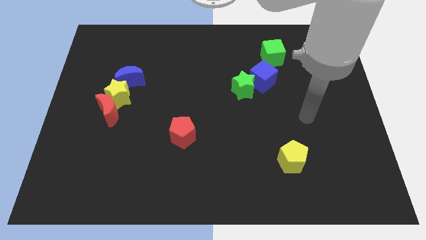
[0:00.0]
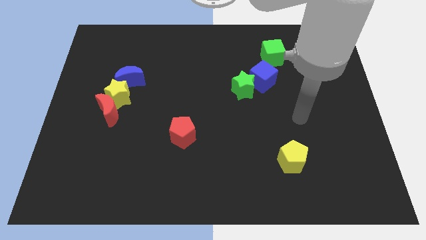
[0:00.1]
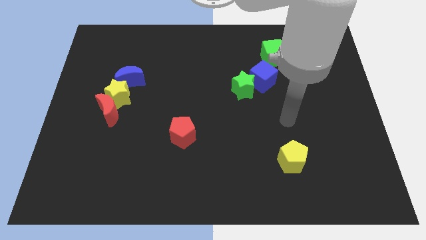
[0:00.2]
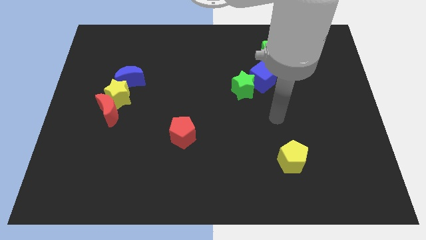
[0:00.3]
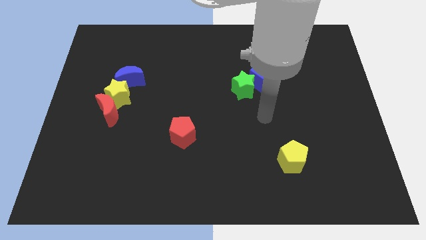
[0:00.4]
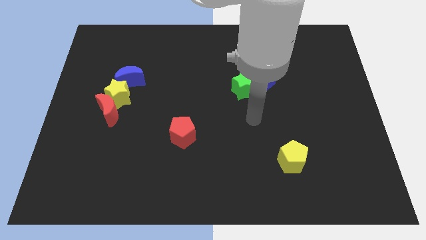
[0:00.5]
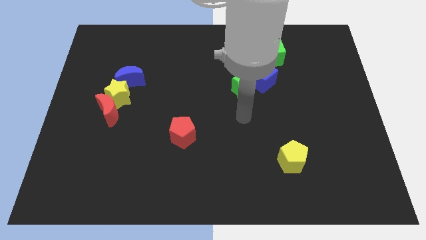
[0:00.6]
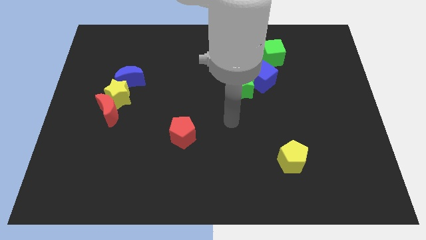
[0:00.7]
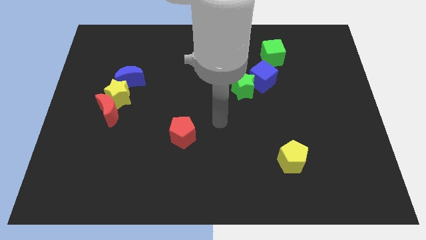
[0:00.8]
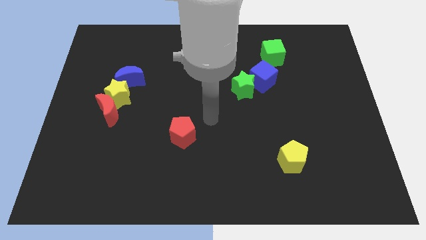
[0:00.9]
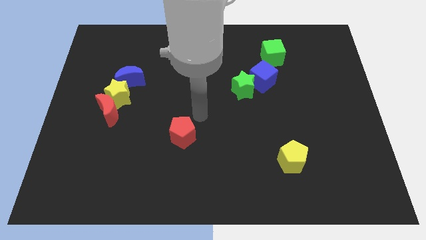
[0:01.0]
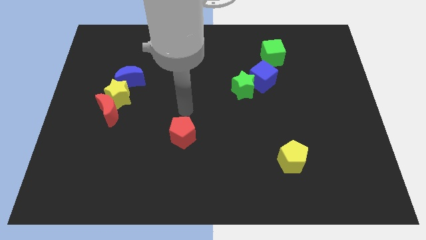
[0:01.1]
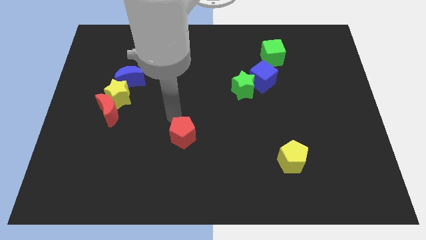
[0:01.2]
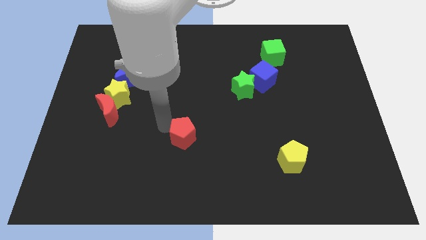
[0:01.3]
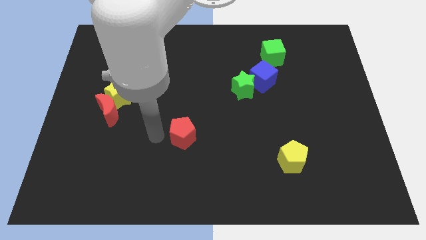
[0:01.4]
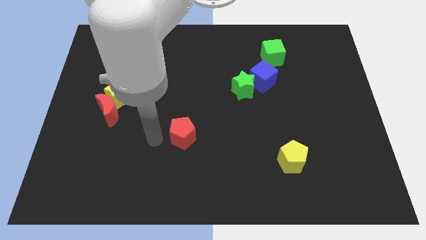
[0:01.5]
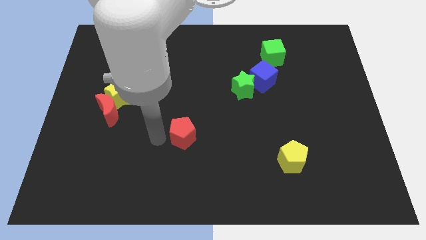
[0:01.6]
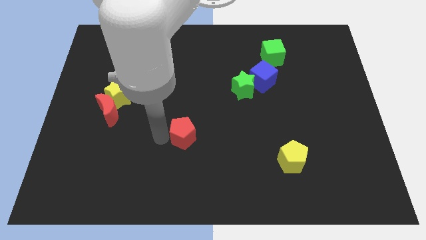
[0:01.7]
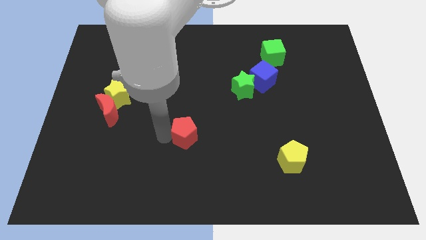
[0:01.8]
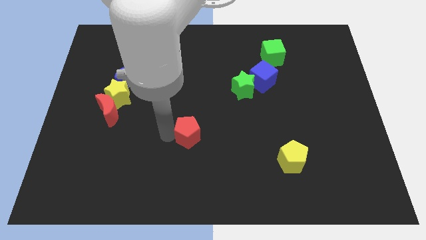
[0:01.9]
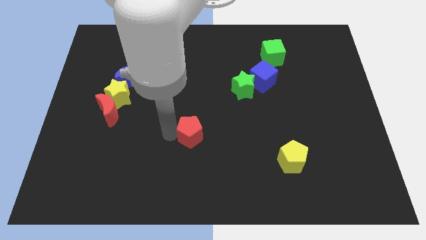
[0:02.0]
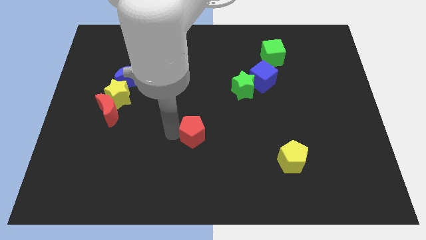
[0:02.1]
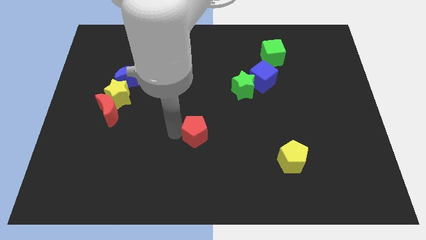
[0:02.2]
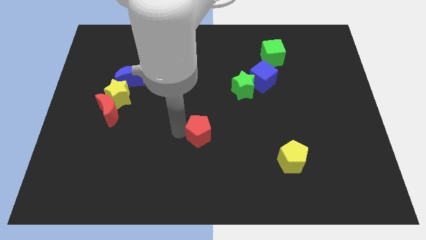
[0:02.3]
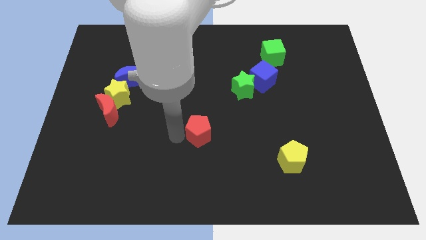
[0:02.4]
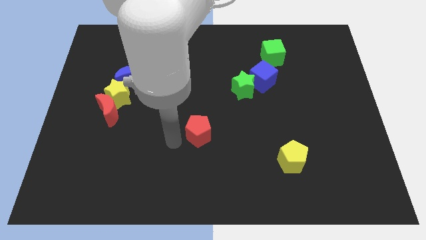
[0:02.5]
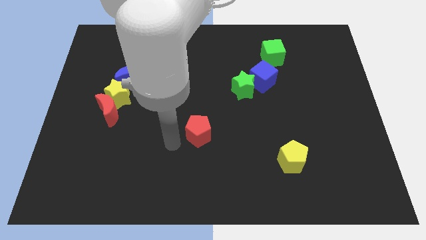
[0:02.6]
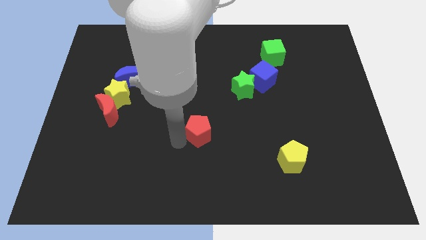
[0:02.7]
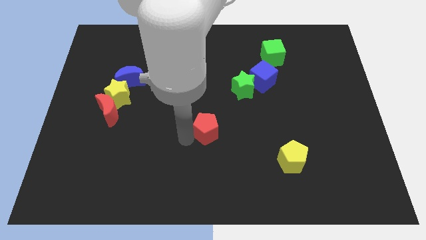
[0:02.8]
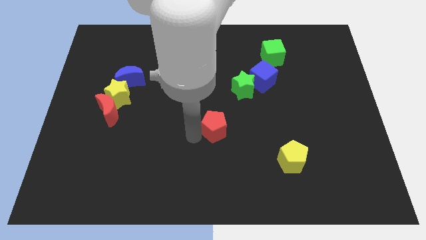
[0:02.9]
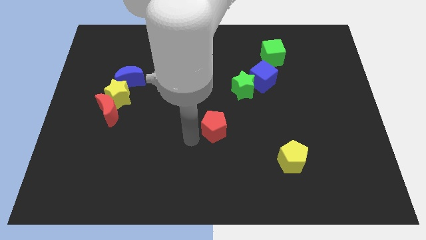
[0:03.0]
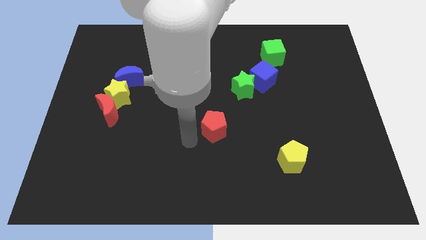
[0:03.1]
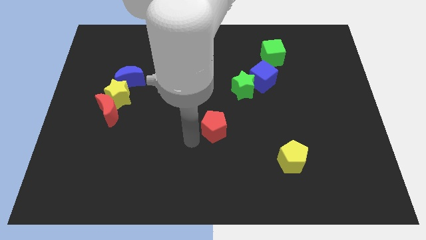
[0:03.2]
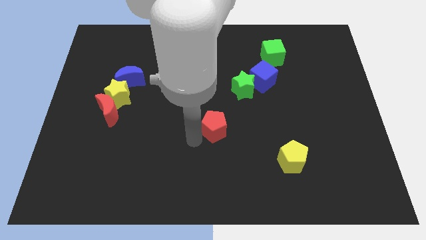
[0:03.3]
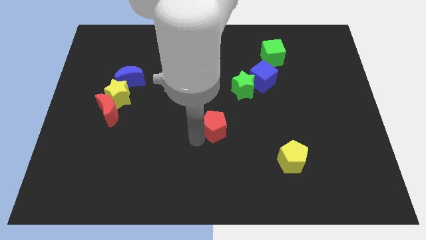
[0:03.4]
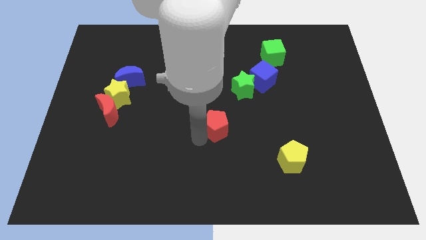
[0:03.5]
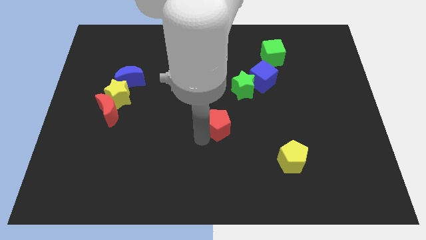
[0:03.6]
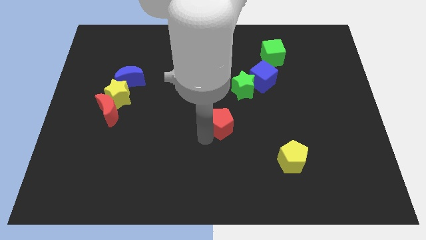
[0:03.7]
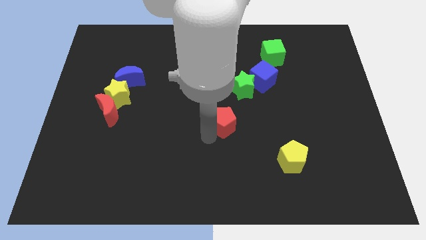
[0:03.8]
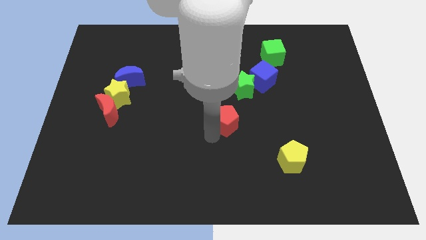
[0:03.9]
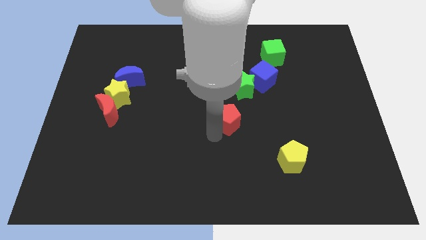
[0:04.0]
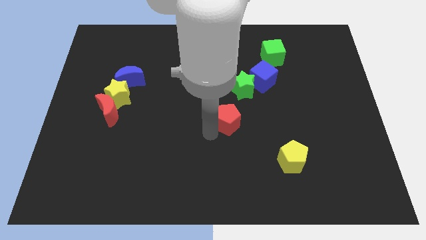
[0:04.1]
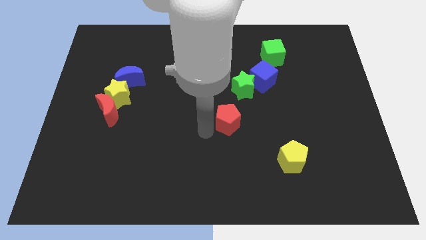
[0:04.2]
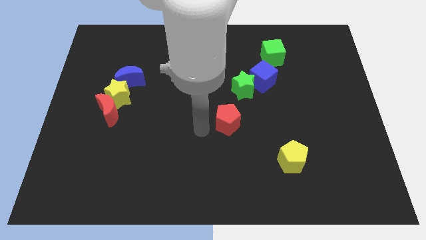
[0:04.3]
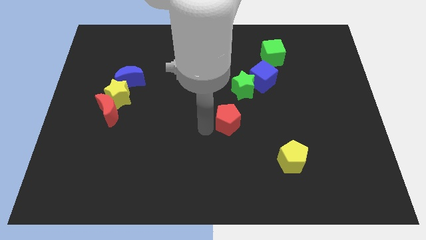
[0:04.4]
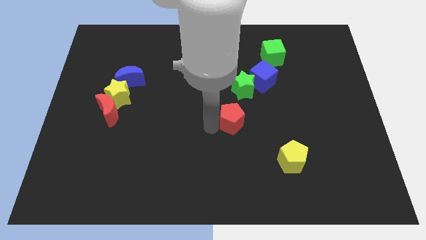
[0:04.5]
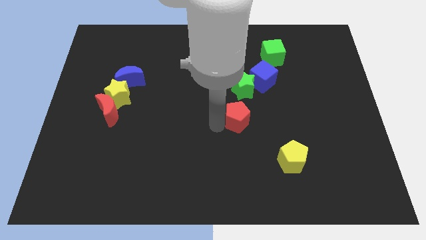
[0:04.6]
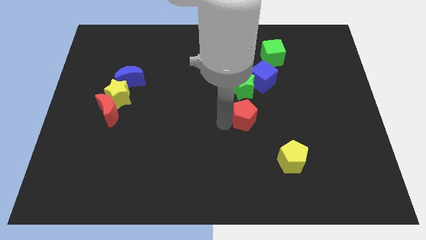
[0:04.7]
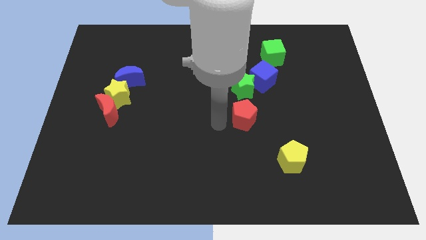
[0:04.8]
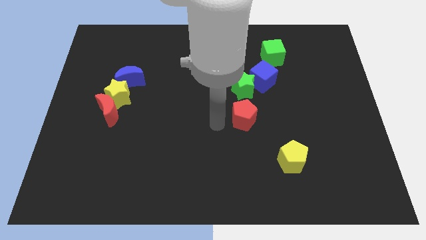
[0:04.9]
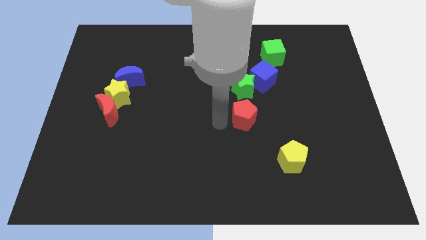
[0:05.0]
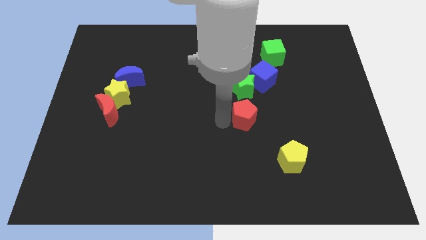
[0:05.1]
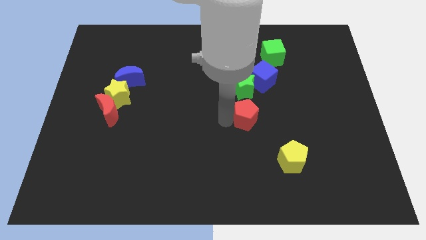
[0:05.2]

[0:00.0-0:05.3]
push the red pentagon to the bottom of the blue cube

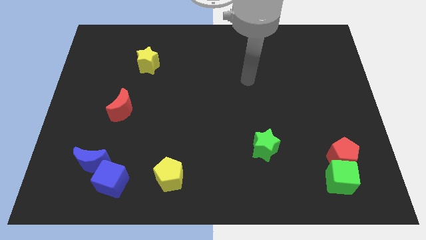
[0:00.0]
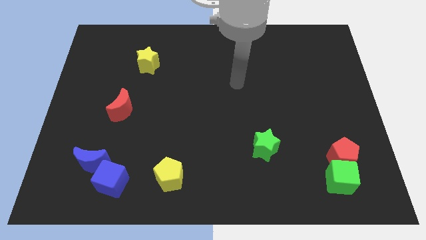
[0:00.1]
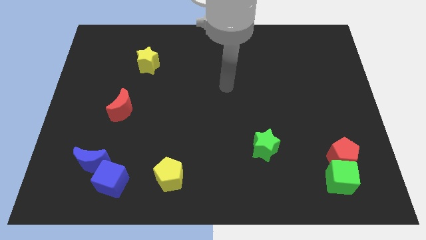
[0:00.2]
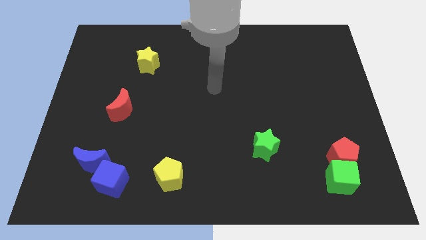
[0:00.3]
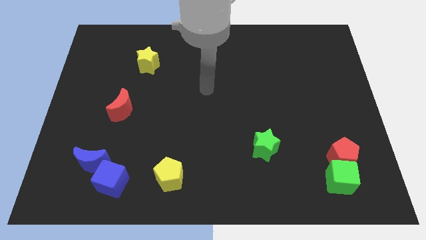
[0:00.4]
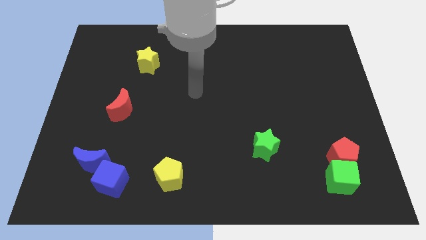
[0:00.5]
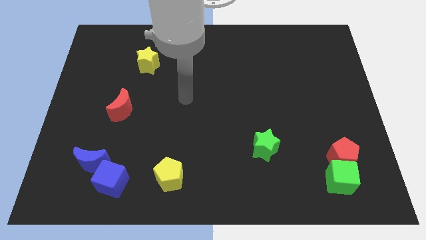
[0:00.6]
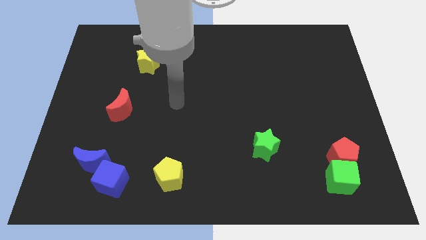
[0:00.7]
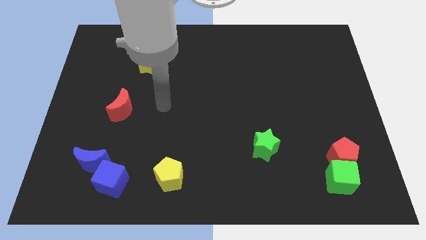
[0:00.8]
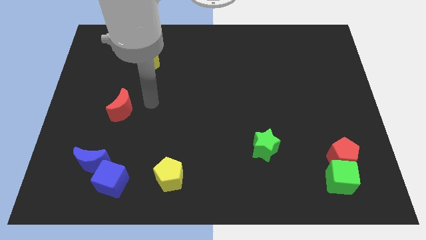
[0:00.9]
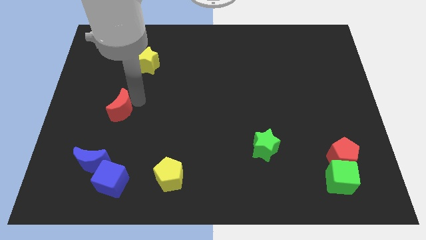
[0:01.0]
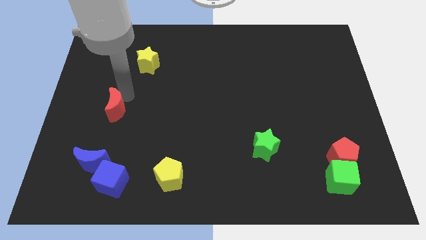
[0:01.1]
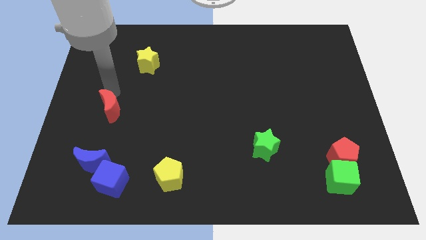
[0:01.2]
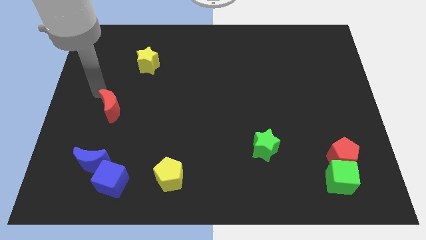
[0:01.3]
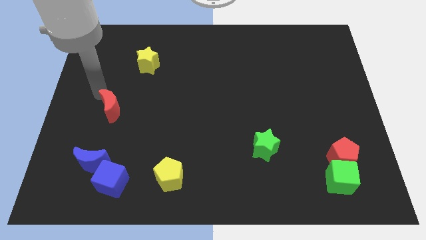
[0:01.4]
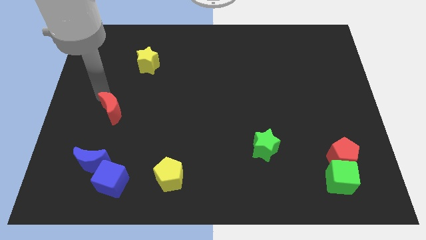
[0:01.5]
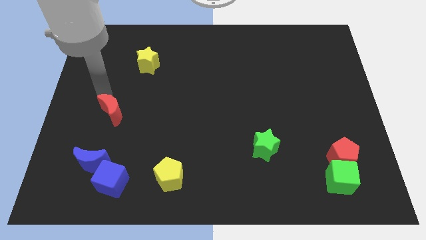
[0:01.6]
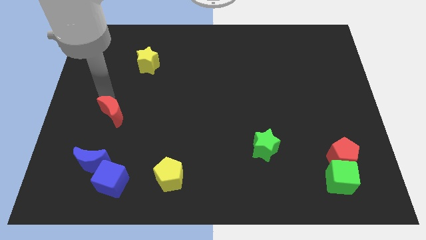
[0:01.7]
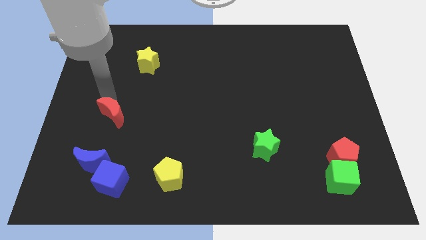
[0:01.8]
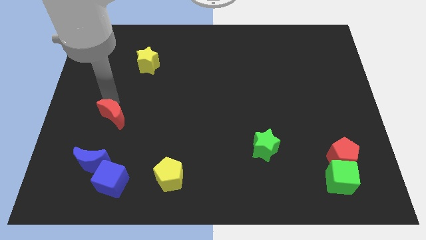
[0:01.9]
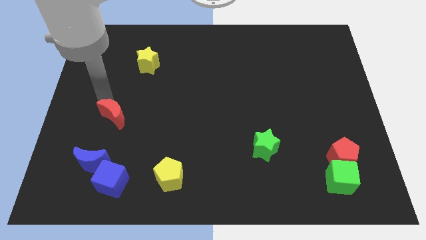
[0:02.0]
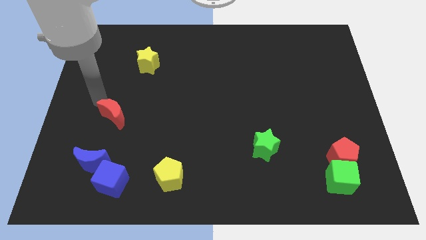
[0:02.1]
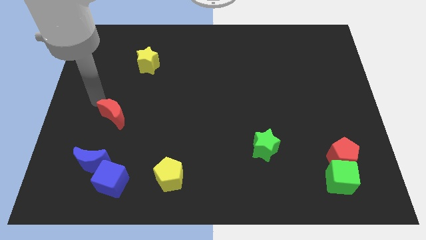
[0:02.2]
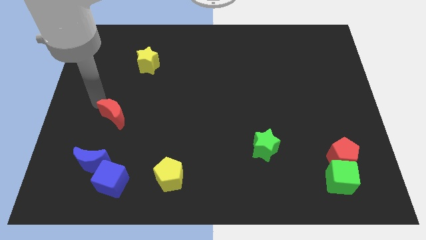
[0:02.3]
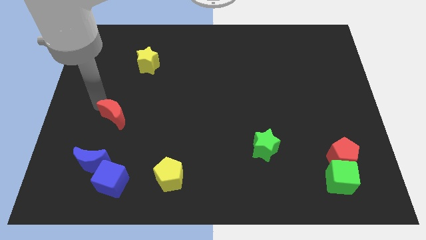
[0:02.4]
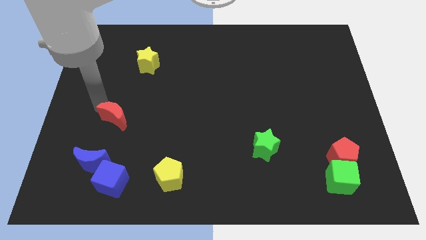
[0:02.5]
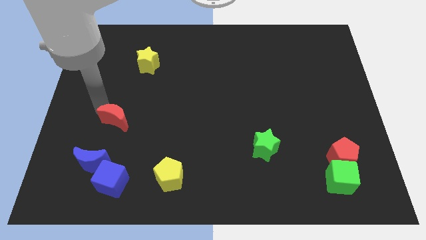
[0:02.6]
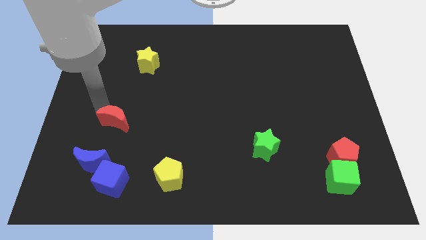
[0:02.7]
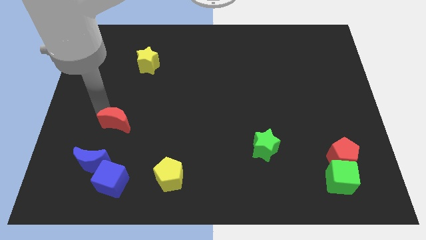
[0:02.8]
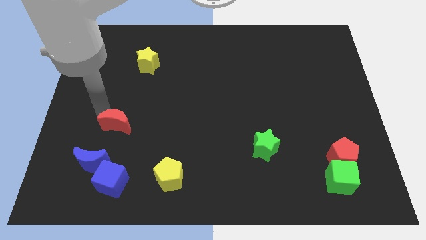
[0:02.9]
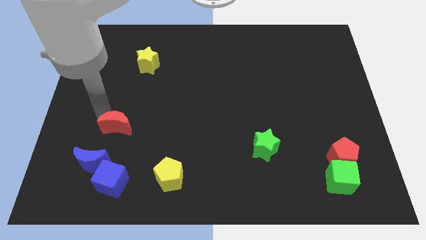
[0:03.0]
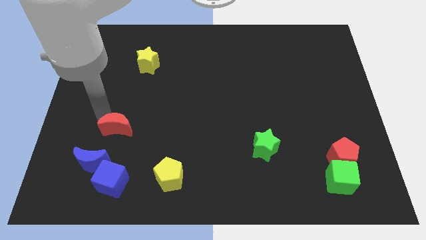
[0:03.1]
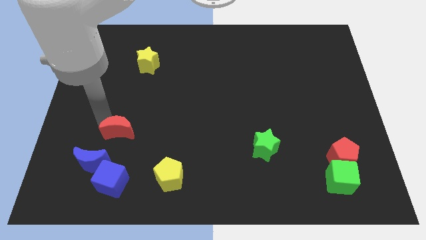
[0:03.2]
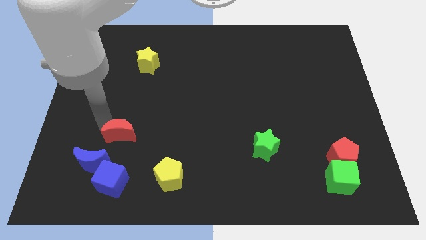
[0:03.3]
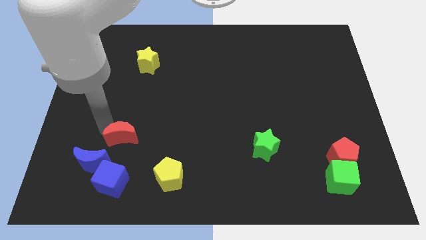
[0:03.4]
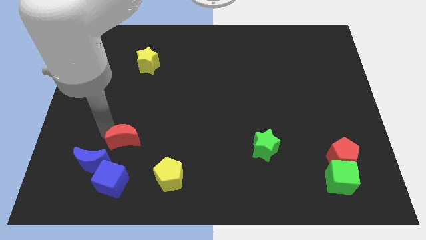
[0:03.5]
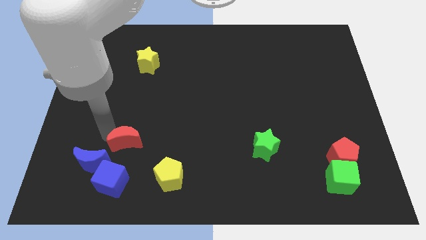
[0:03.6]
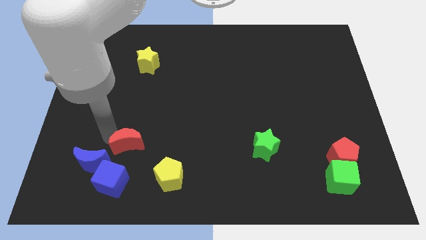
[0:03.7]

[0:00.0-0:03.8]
put the red moon to the right side of the blue moon
